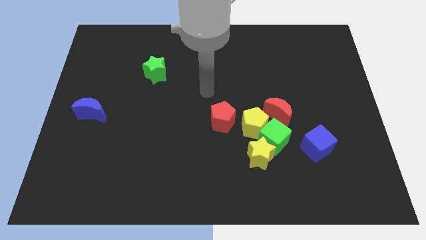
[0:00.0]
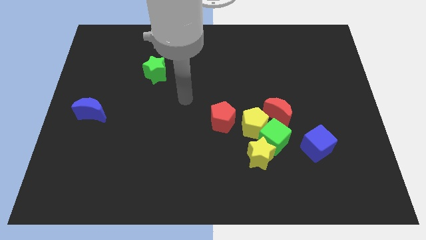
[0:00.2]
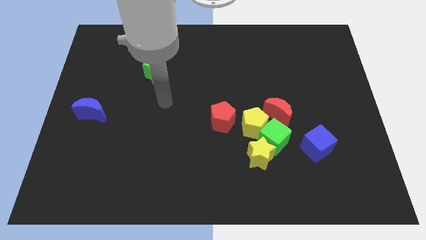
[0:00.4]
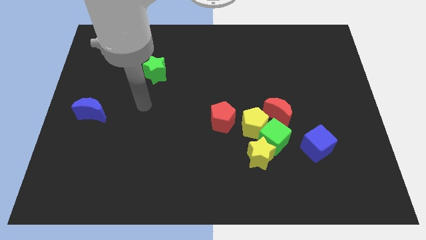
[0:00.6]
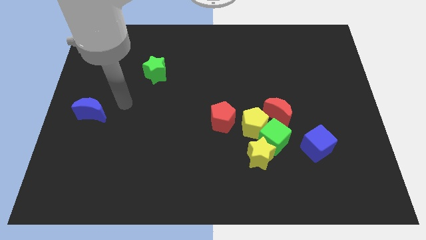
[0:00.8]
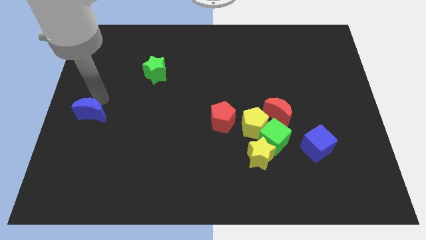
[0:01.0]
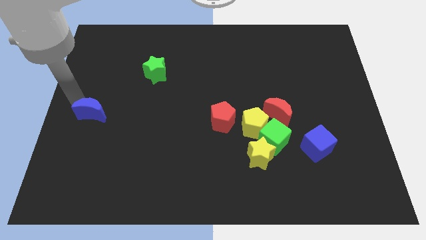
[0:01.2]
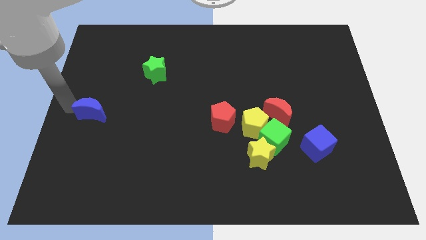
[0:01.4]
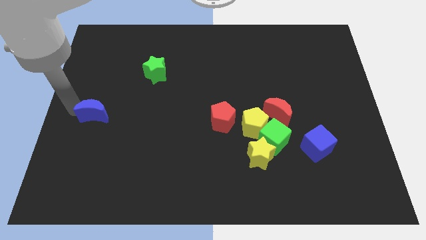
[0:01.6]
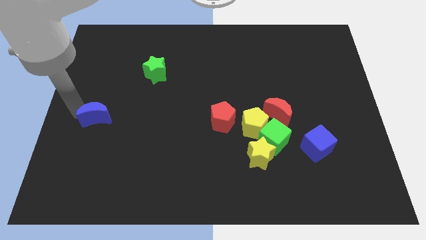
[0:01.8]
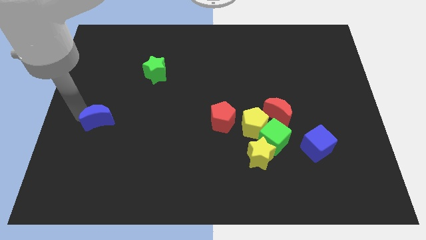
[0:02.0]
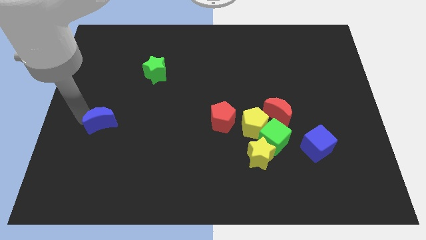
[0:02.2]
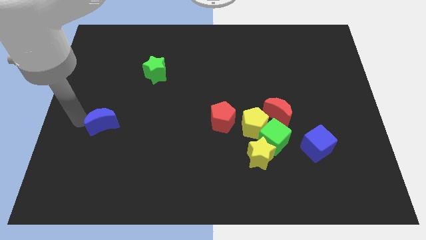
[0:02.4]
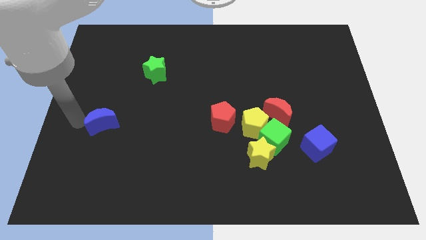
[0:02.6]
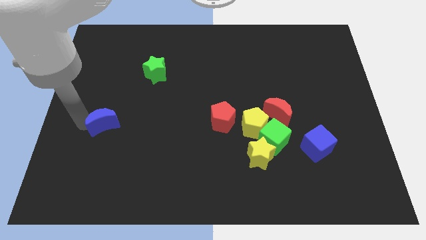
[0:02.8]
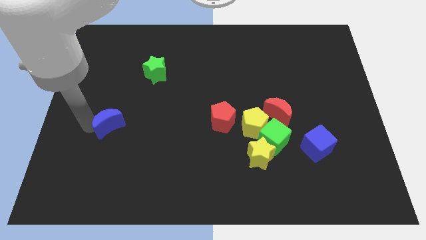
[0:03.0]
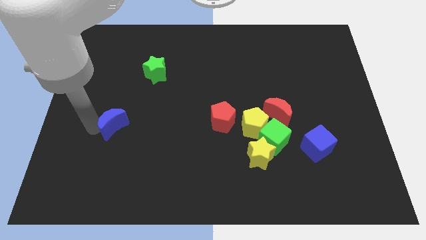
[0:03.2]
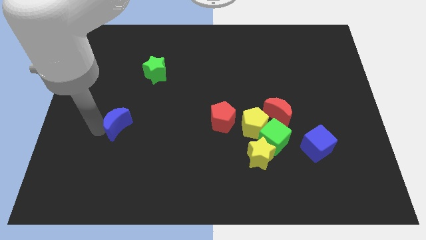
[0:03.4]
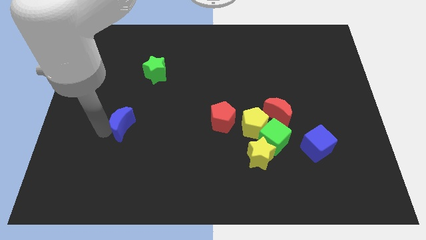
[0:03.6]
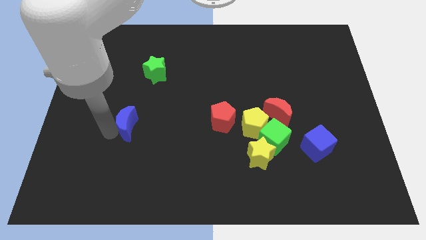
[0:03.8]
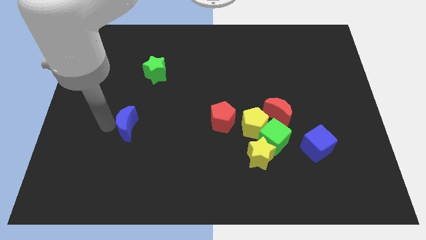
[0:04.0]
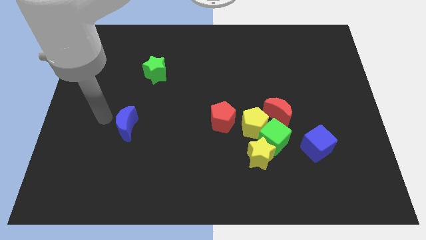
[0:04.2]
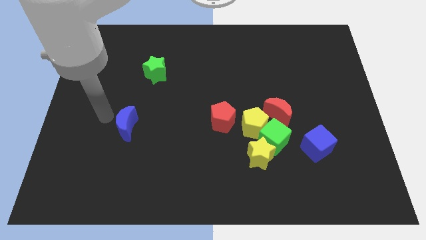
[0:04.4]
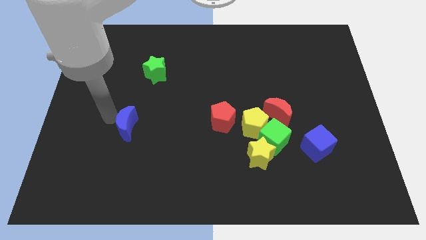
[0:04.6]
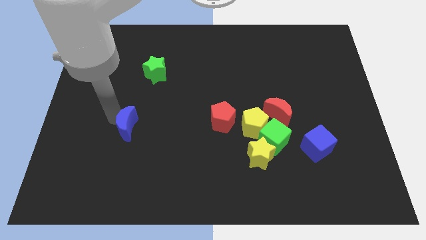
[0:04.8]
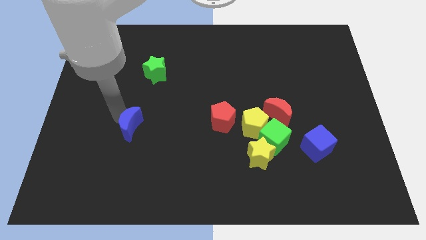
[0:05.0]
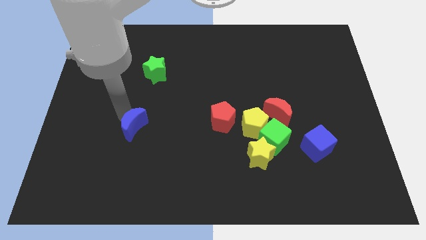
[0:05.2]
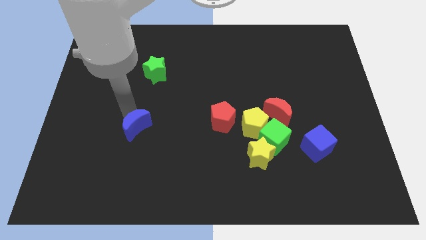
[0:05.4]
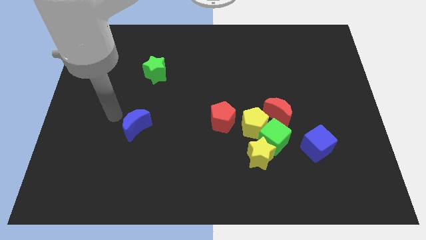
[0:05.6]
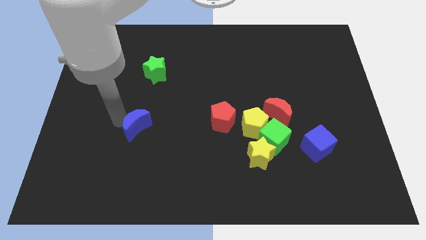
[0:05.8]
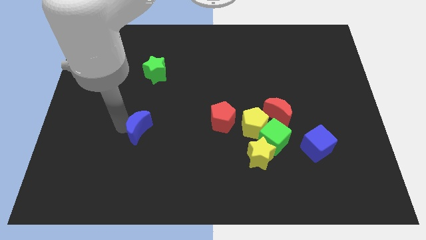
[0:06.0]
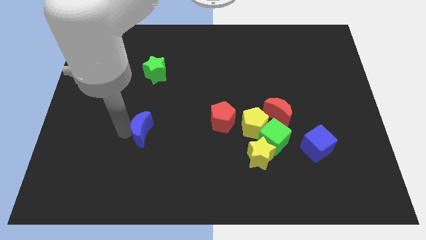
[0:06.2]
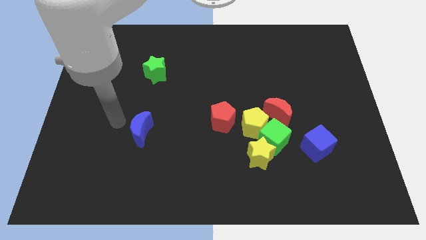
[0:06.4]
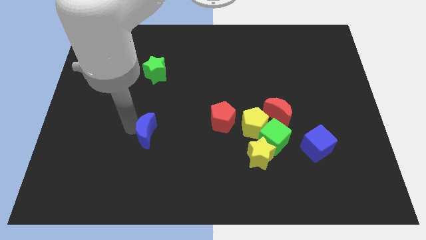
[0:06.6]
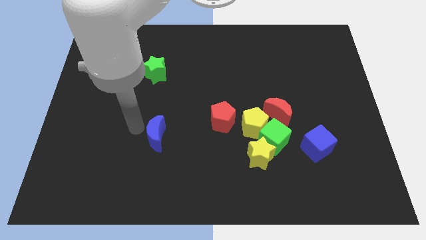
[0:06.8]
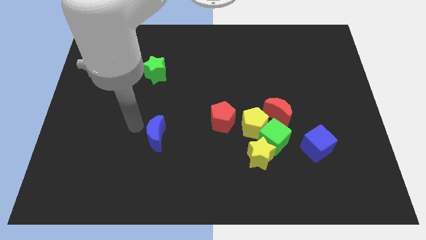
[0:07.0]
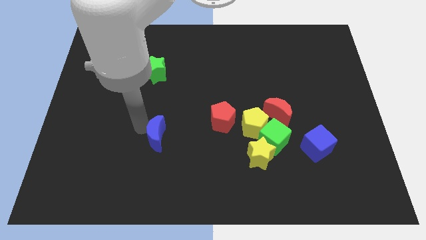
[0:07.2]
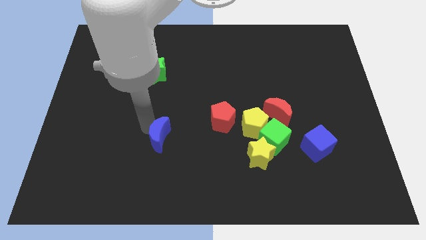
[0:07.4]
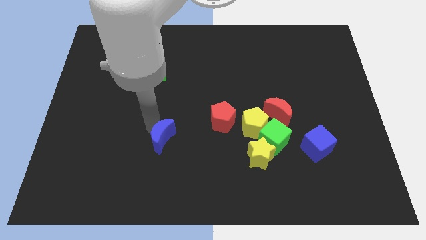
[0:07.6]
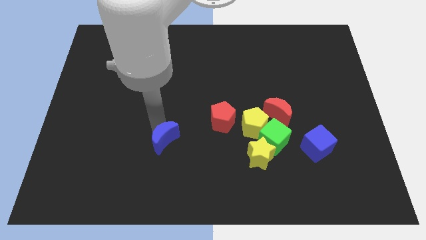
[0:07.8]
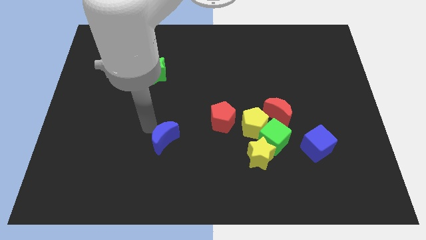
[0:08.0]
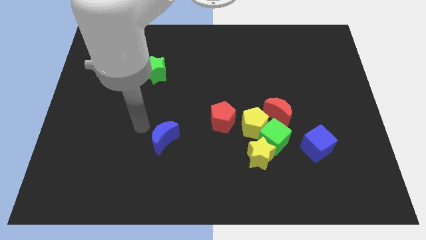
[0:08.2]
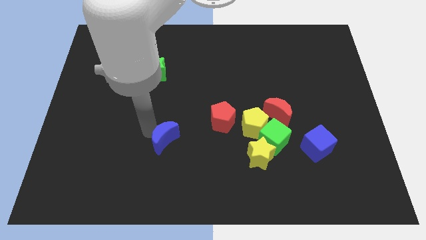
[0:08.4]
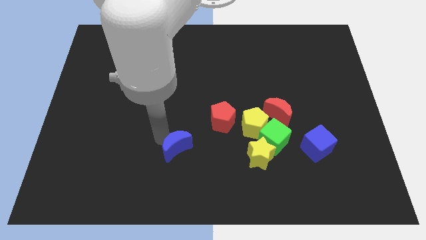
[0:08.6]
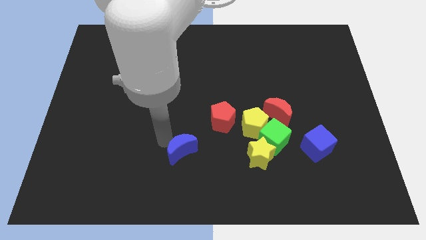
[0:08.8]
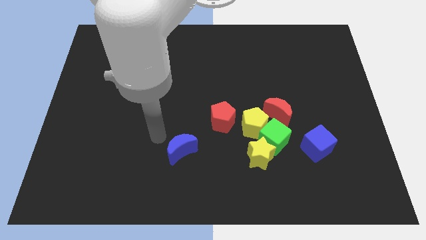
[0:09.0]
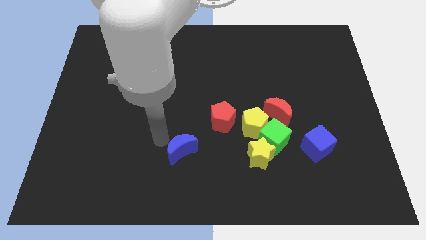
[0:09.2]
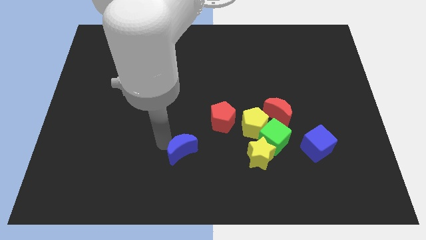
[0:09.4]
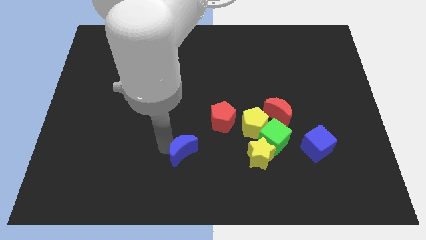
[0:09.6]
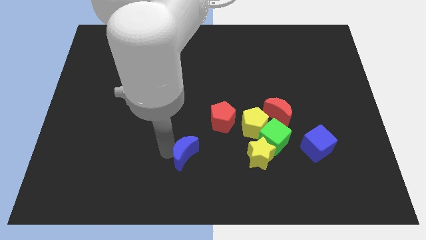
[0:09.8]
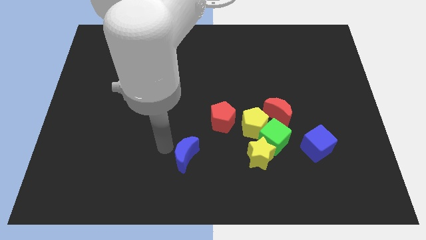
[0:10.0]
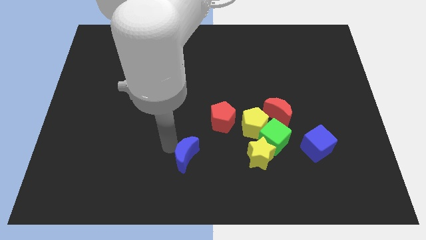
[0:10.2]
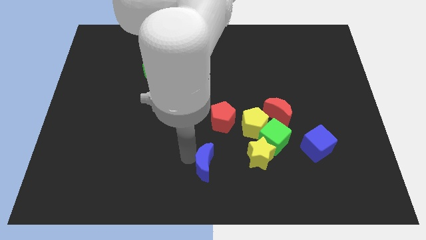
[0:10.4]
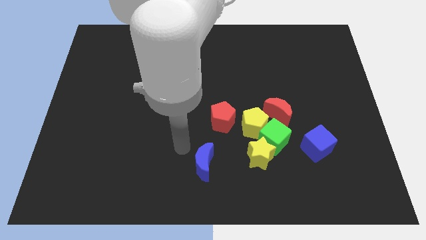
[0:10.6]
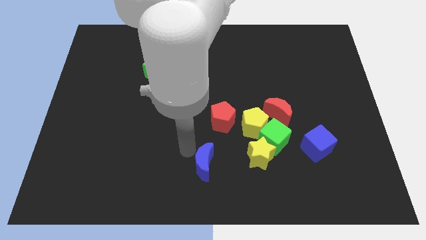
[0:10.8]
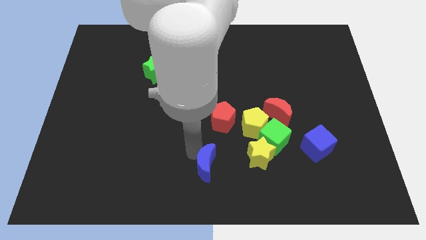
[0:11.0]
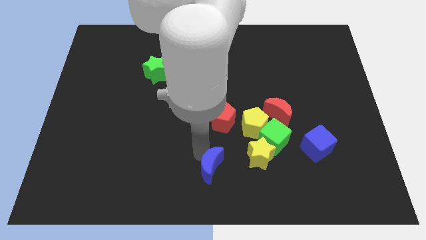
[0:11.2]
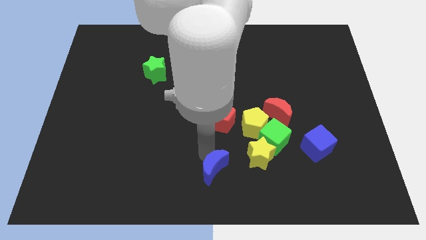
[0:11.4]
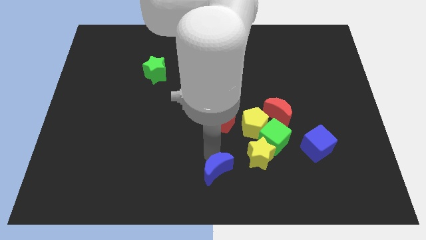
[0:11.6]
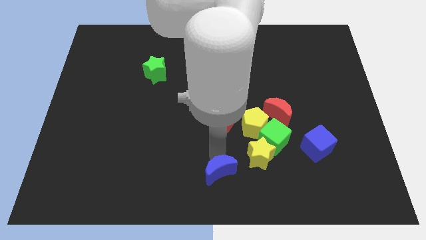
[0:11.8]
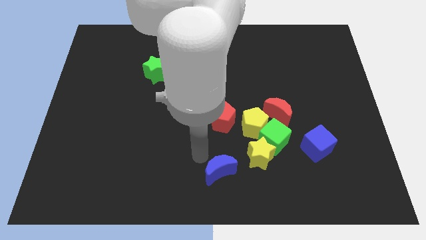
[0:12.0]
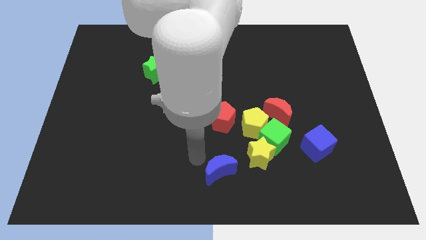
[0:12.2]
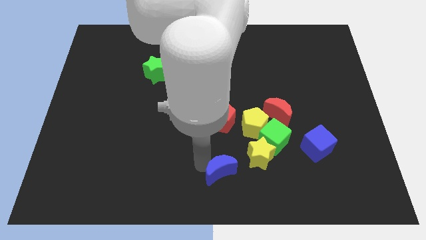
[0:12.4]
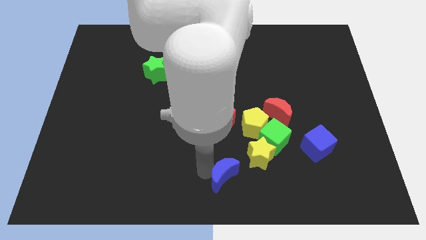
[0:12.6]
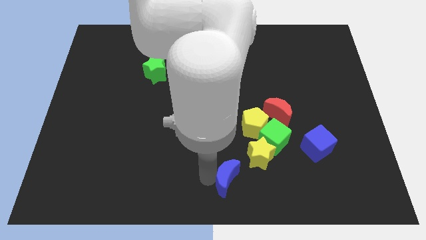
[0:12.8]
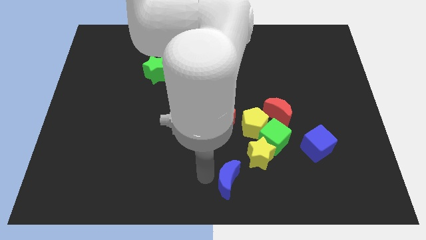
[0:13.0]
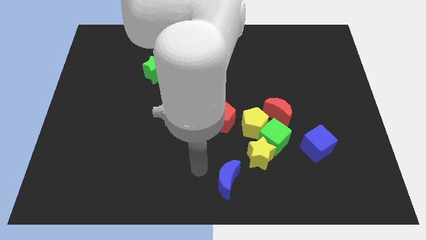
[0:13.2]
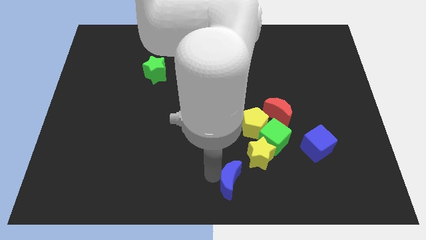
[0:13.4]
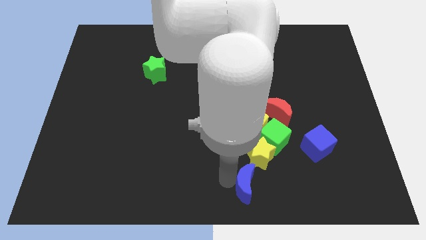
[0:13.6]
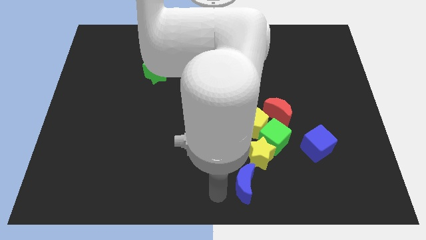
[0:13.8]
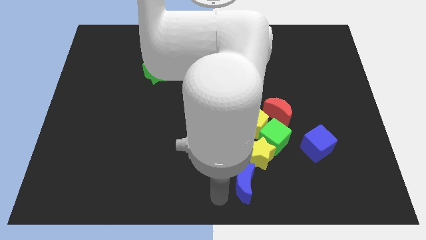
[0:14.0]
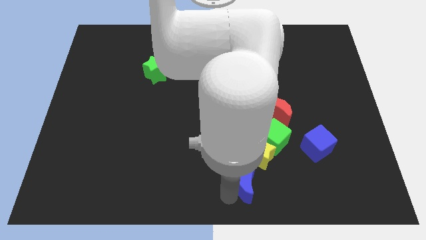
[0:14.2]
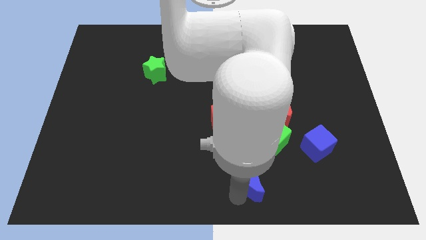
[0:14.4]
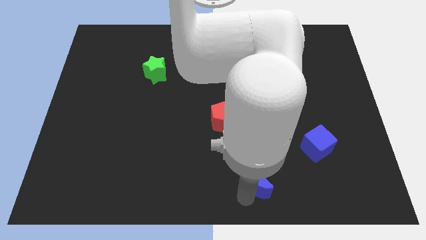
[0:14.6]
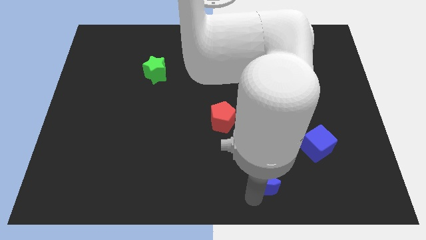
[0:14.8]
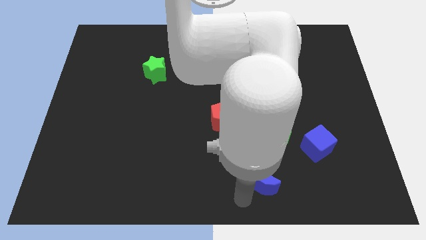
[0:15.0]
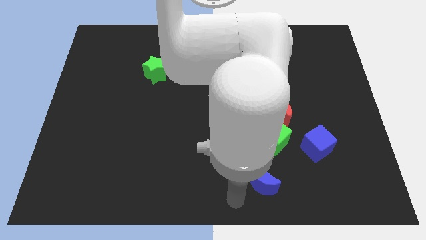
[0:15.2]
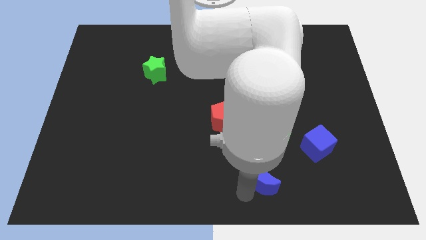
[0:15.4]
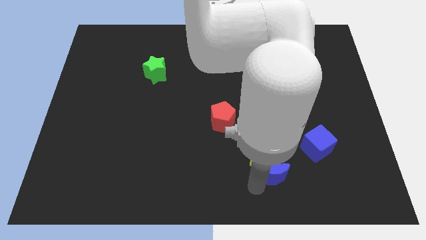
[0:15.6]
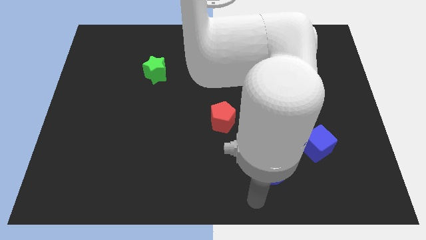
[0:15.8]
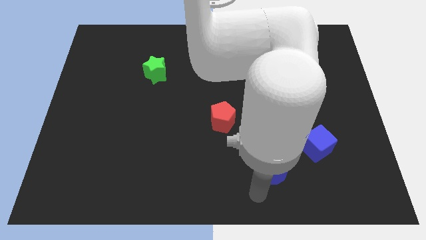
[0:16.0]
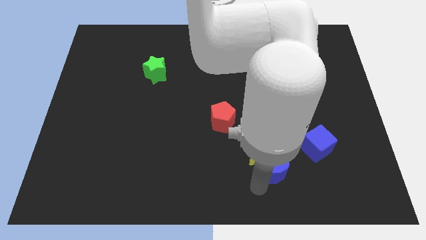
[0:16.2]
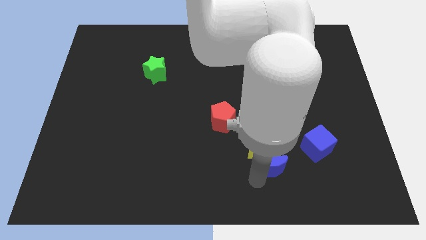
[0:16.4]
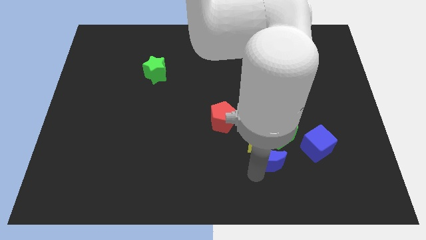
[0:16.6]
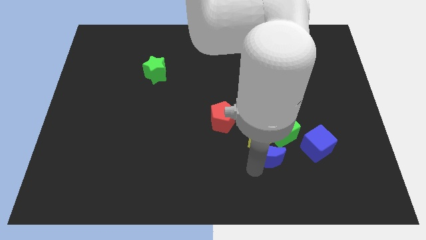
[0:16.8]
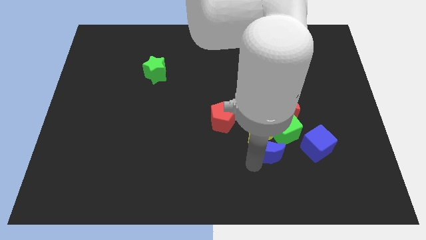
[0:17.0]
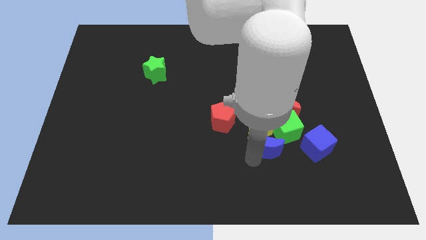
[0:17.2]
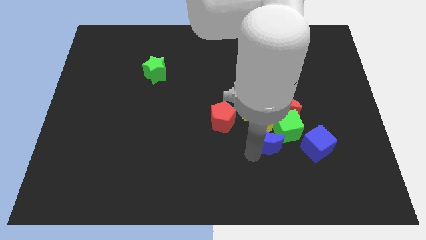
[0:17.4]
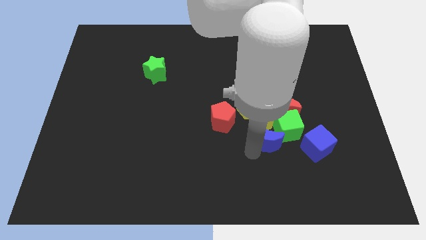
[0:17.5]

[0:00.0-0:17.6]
put the blue moon close to the green cube
